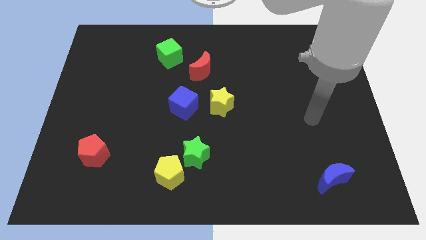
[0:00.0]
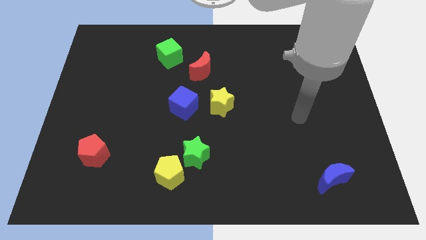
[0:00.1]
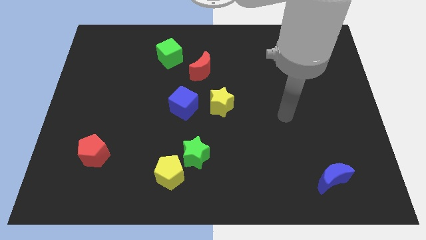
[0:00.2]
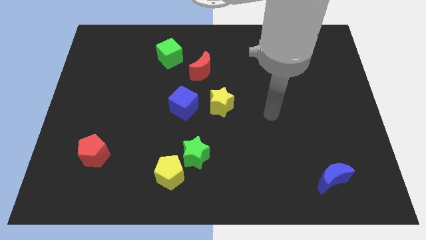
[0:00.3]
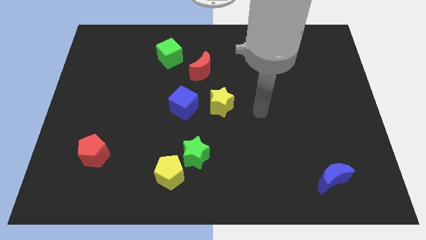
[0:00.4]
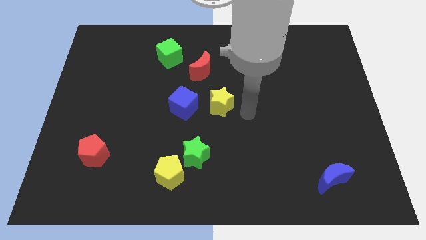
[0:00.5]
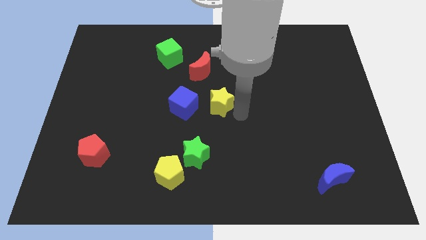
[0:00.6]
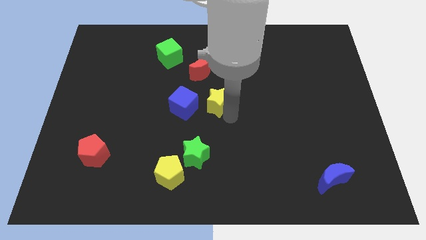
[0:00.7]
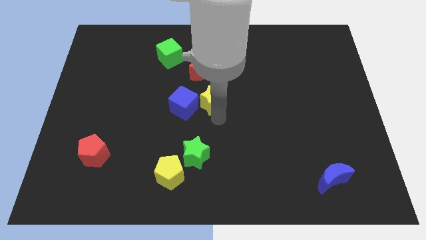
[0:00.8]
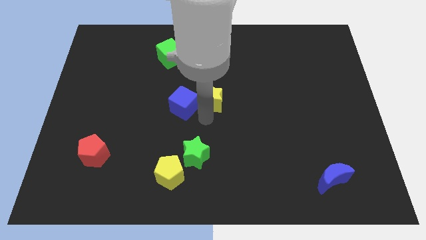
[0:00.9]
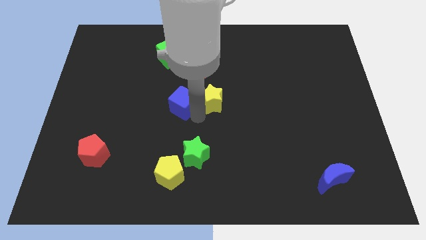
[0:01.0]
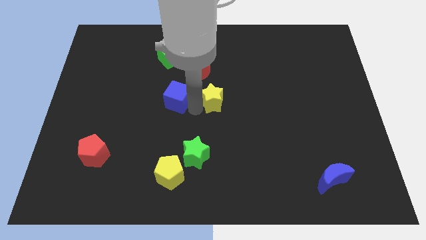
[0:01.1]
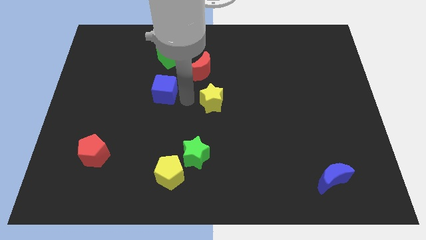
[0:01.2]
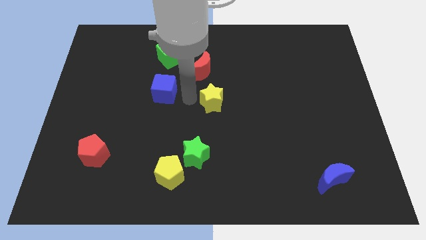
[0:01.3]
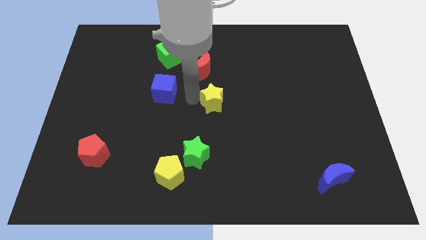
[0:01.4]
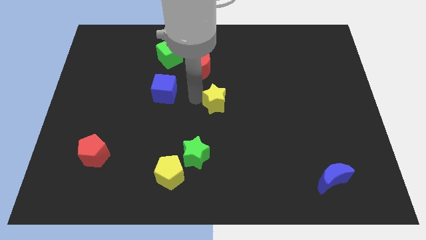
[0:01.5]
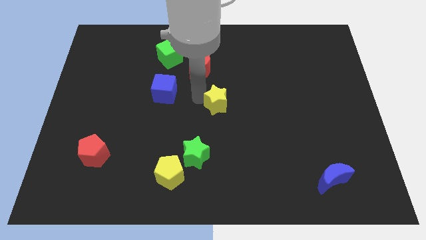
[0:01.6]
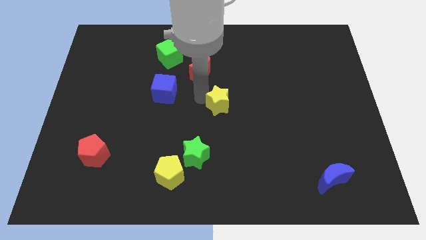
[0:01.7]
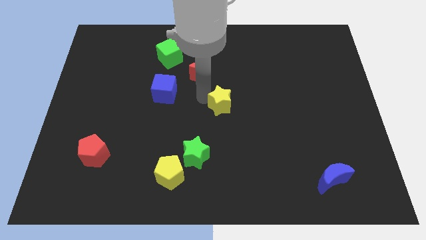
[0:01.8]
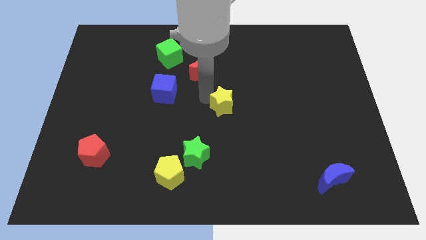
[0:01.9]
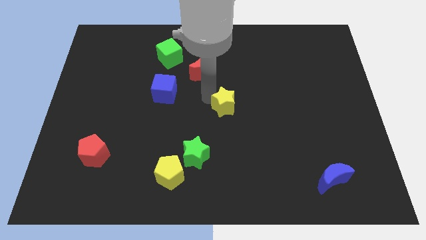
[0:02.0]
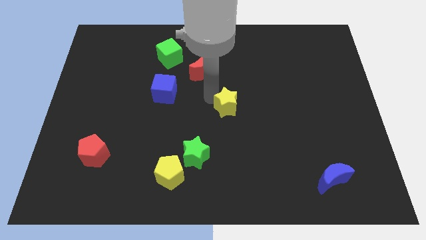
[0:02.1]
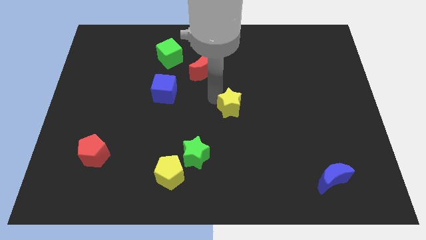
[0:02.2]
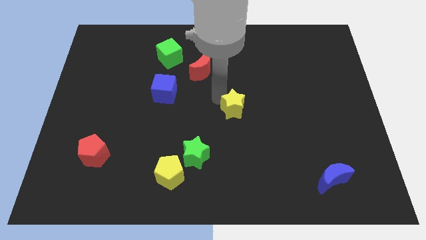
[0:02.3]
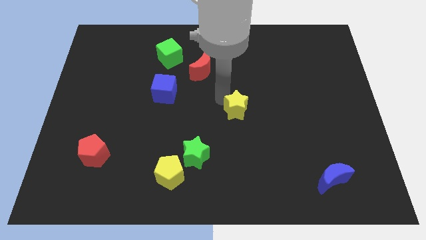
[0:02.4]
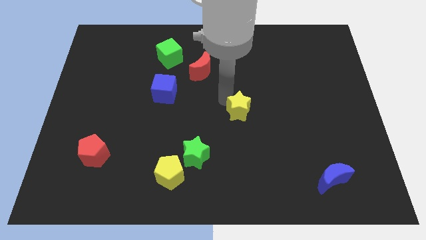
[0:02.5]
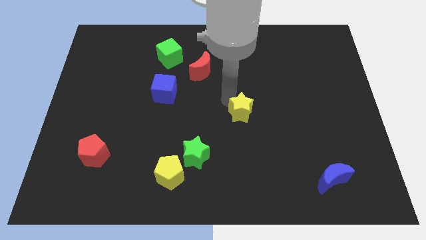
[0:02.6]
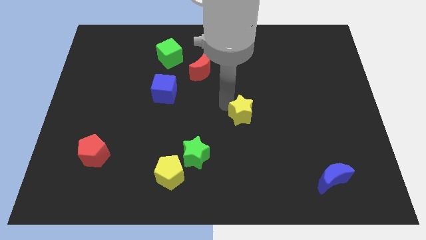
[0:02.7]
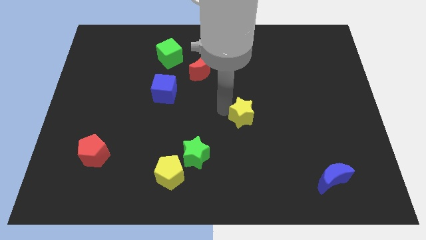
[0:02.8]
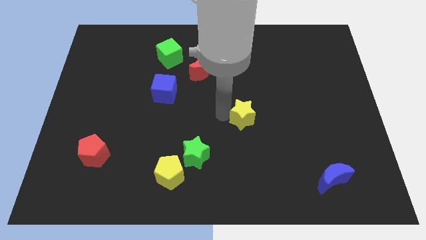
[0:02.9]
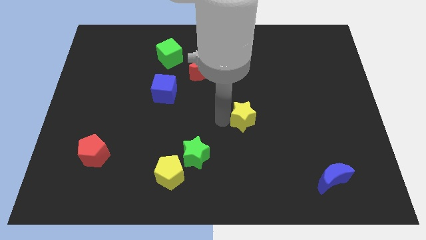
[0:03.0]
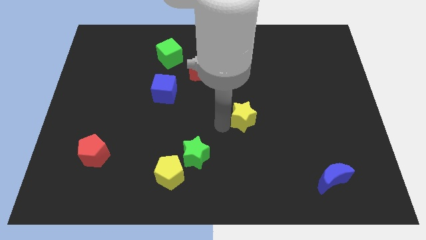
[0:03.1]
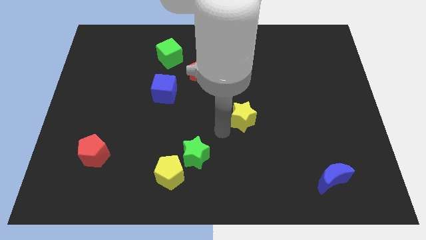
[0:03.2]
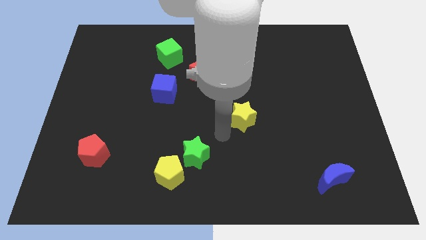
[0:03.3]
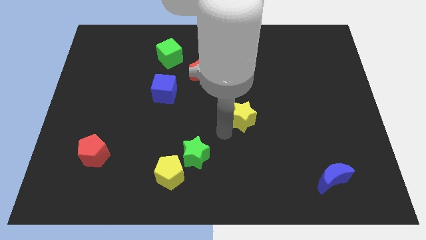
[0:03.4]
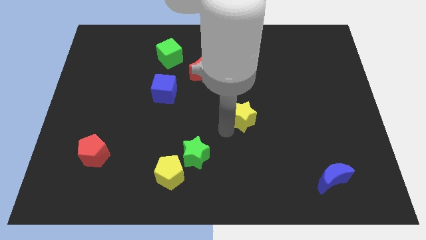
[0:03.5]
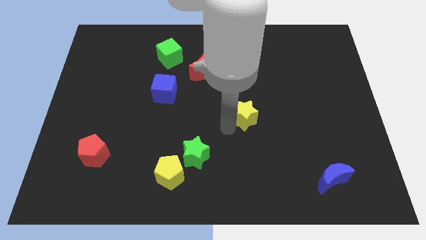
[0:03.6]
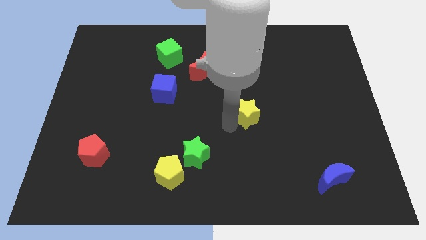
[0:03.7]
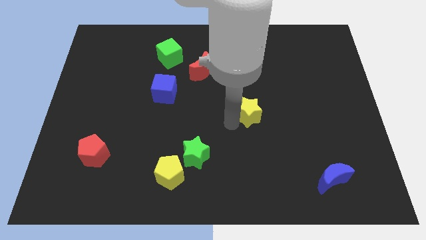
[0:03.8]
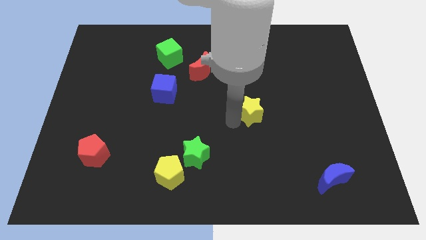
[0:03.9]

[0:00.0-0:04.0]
move the yellow star to the right a little bit

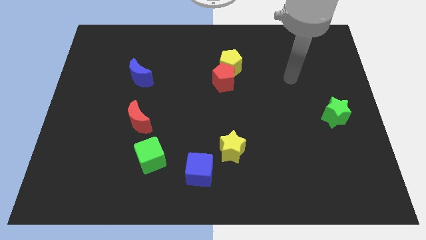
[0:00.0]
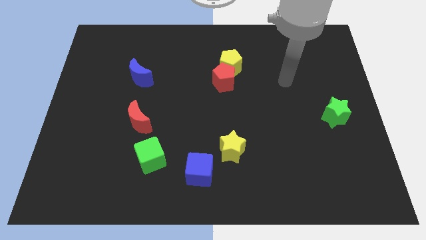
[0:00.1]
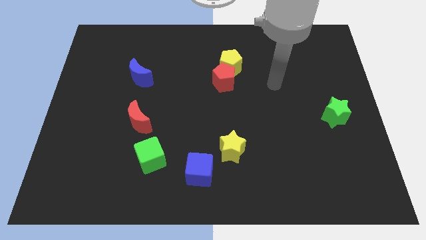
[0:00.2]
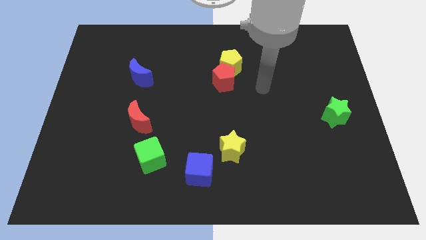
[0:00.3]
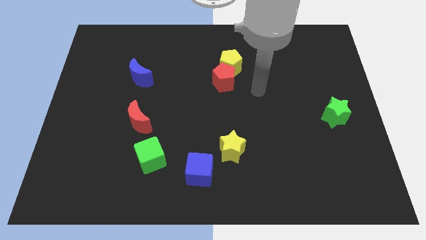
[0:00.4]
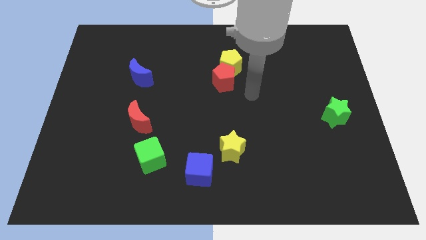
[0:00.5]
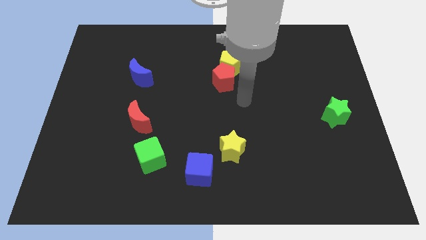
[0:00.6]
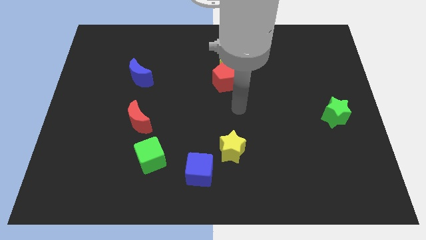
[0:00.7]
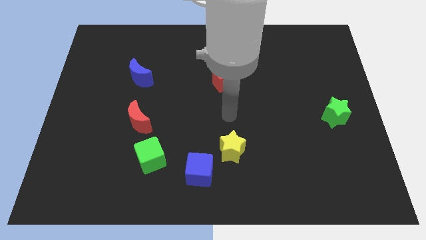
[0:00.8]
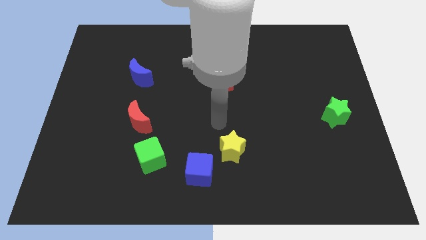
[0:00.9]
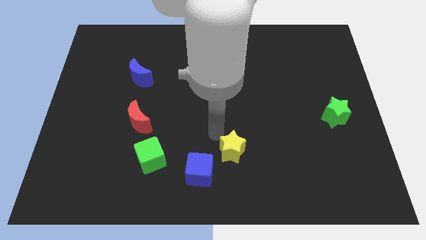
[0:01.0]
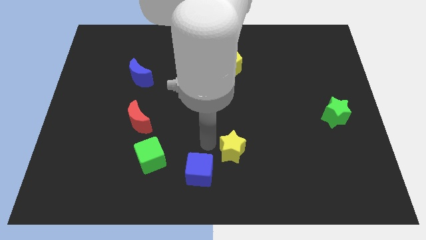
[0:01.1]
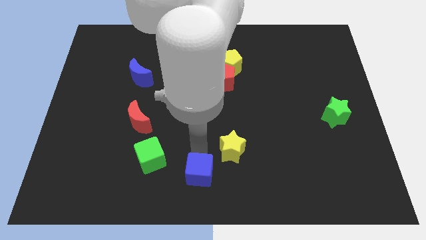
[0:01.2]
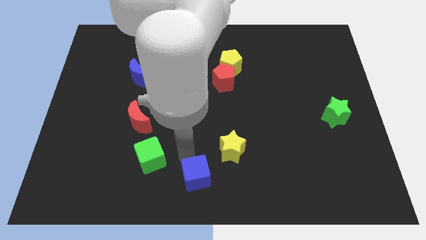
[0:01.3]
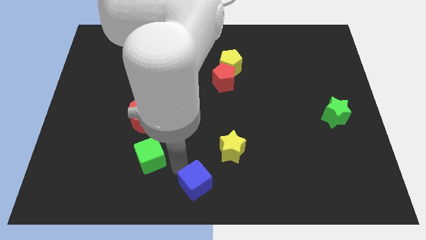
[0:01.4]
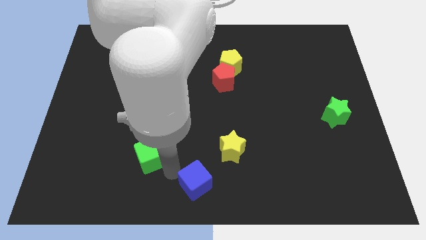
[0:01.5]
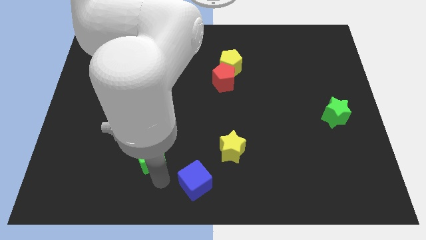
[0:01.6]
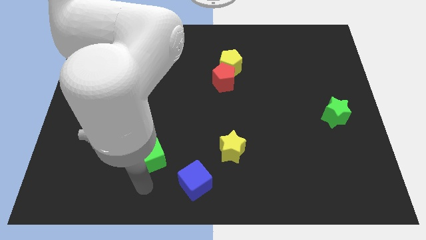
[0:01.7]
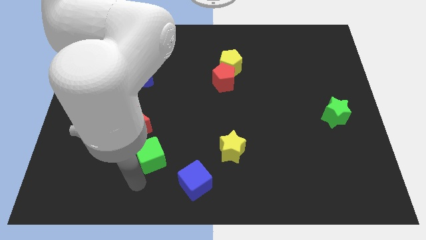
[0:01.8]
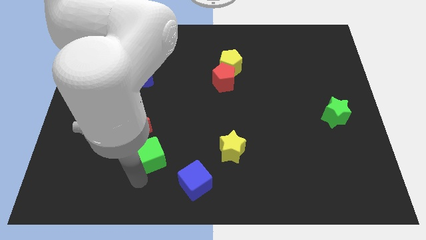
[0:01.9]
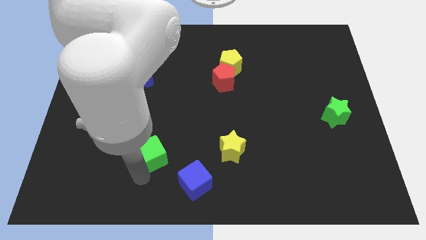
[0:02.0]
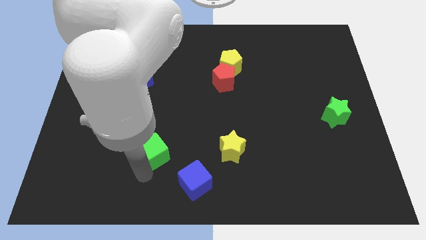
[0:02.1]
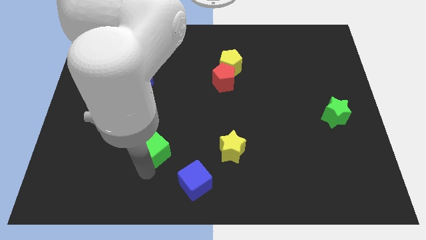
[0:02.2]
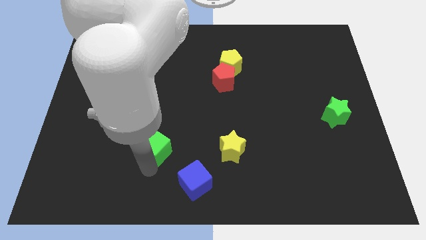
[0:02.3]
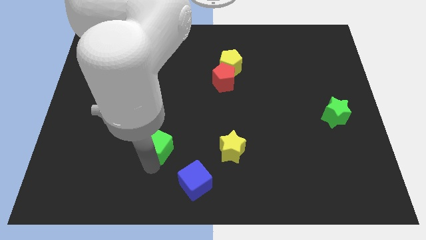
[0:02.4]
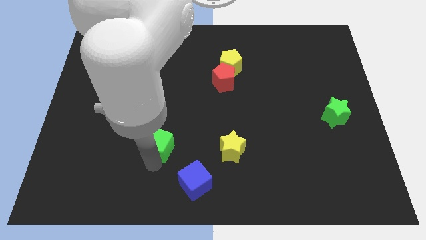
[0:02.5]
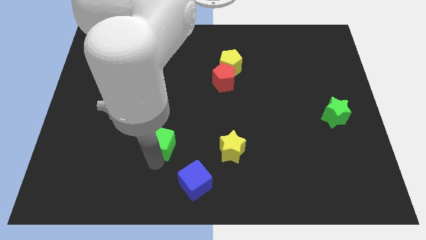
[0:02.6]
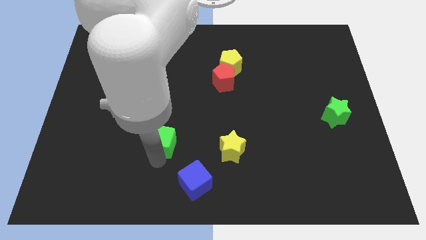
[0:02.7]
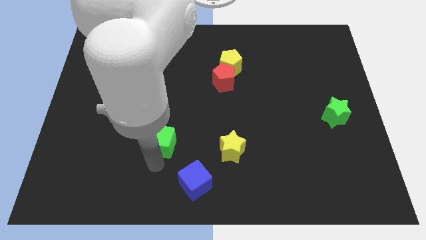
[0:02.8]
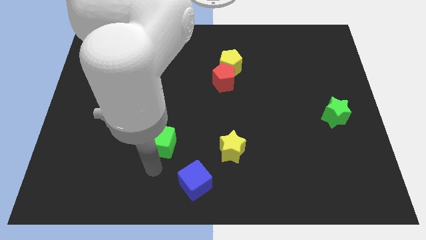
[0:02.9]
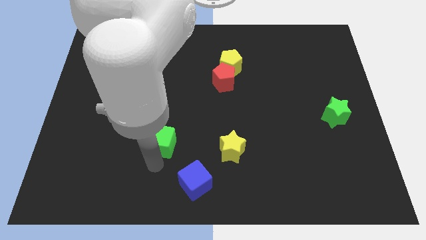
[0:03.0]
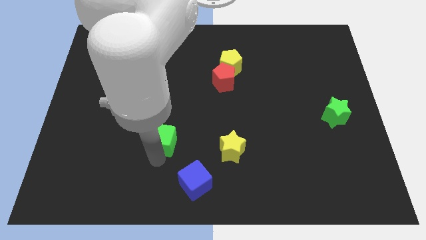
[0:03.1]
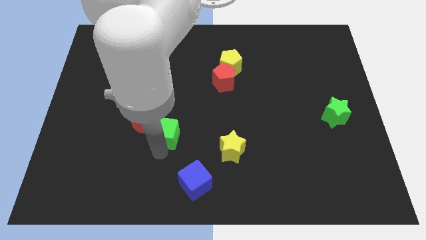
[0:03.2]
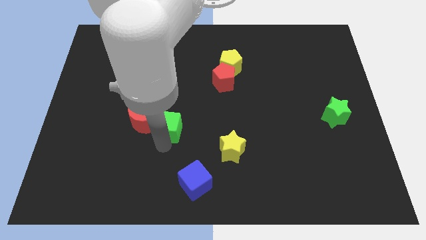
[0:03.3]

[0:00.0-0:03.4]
move the green cube a little up

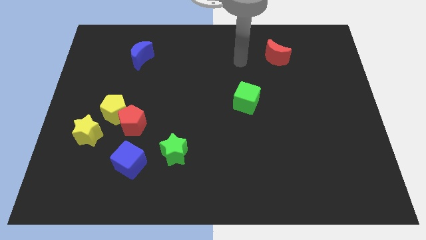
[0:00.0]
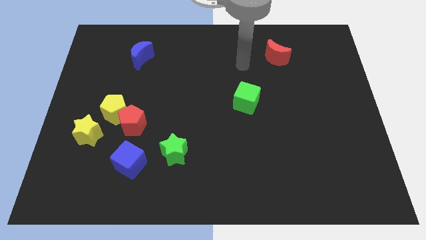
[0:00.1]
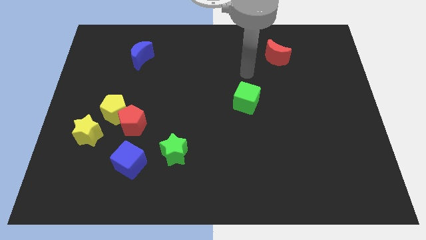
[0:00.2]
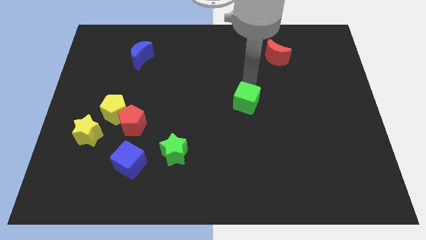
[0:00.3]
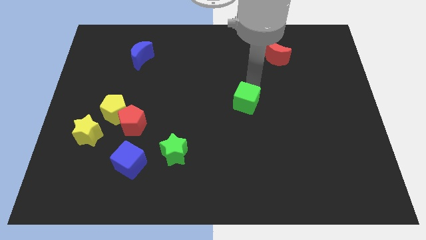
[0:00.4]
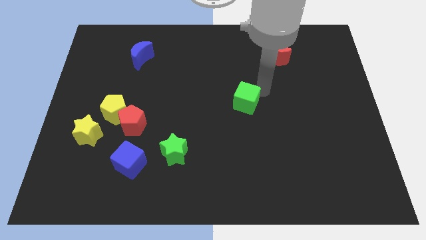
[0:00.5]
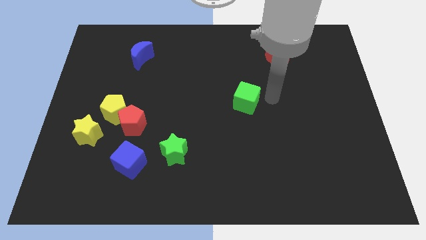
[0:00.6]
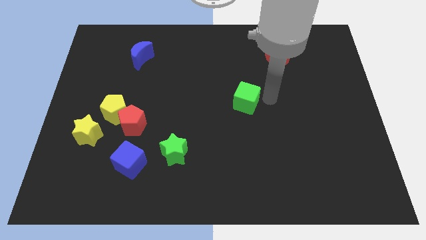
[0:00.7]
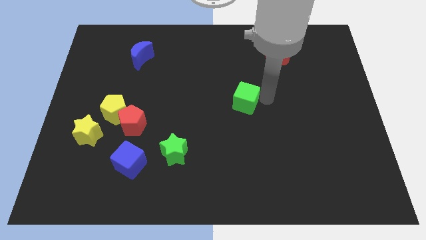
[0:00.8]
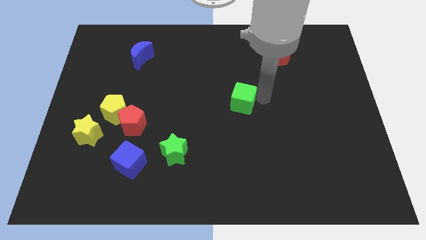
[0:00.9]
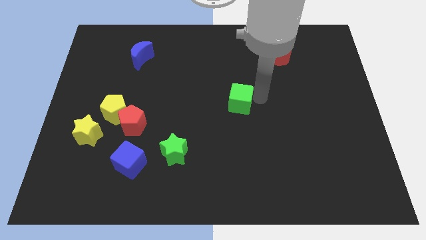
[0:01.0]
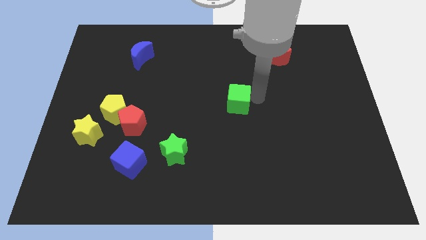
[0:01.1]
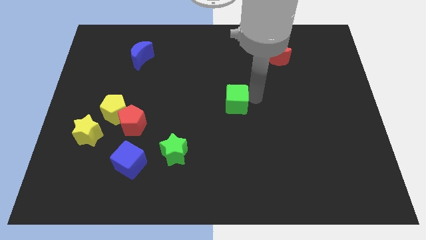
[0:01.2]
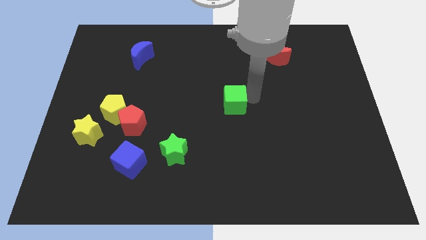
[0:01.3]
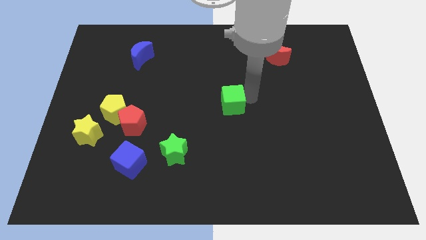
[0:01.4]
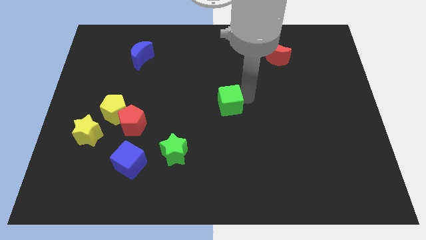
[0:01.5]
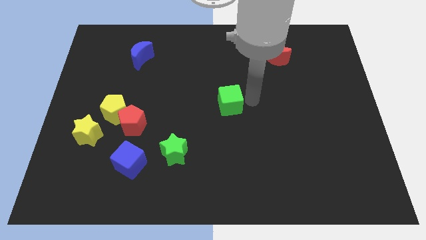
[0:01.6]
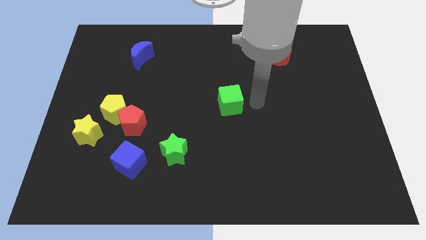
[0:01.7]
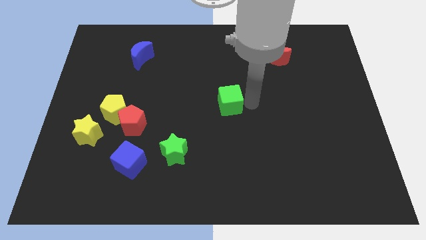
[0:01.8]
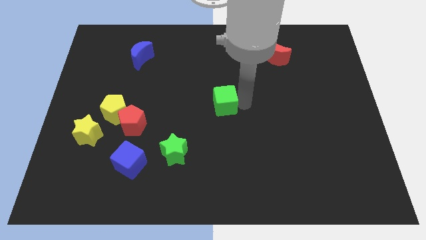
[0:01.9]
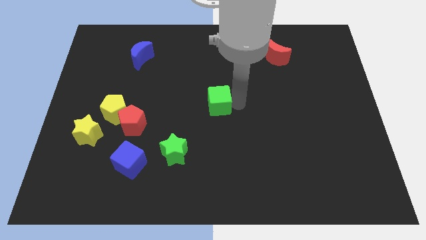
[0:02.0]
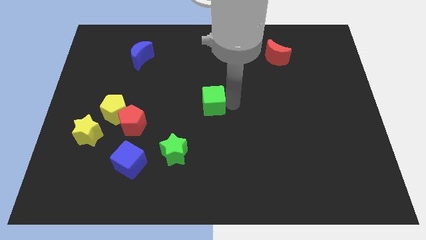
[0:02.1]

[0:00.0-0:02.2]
slightly move the green cube to the left
